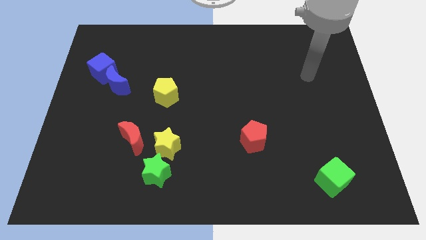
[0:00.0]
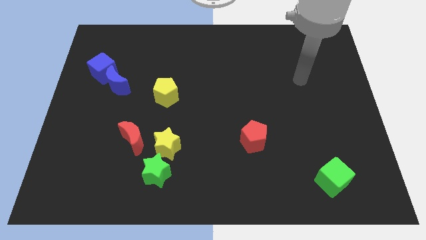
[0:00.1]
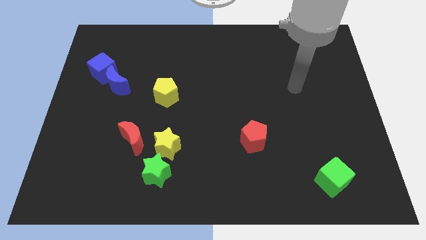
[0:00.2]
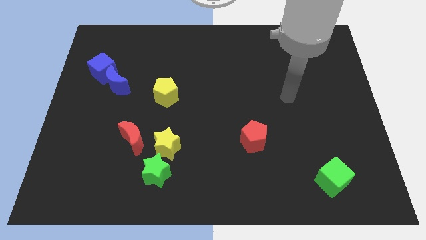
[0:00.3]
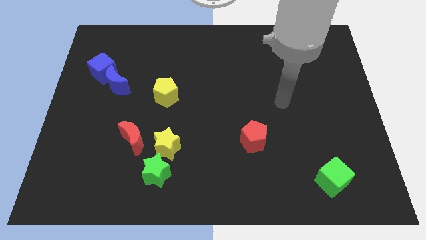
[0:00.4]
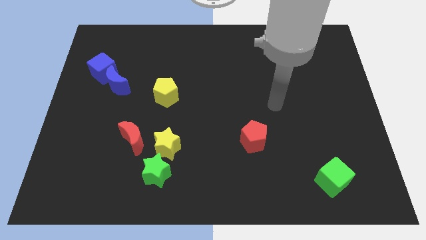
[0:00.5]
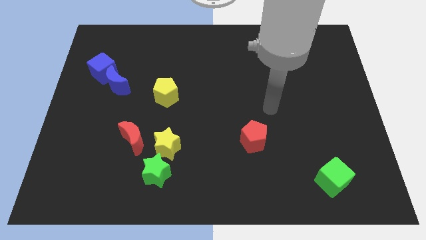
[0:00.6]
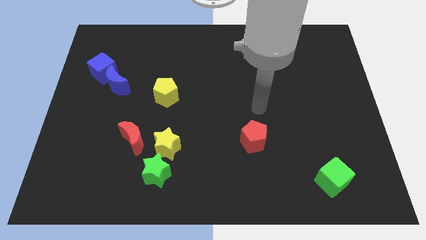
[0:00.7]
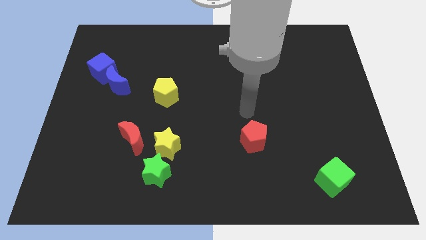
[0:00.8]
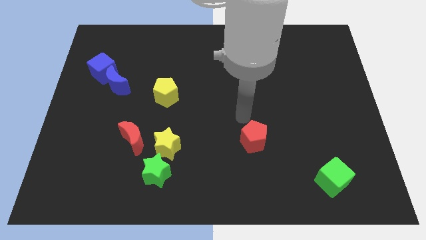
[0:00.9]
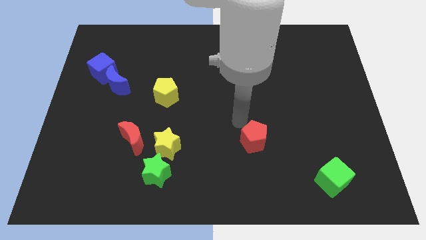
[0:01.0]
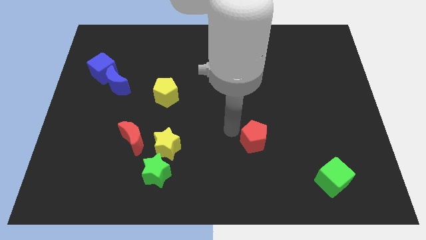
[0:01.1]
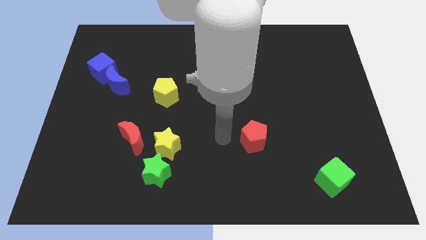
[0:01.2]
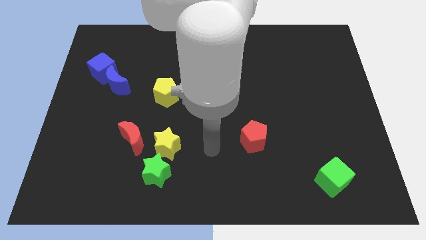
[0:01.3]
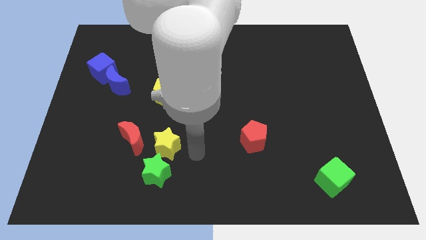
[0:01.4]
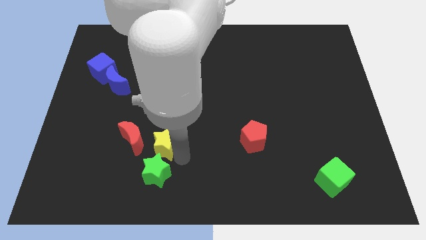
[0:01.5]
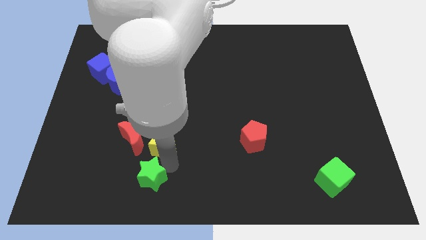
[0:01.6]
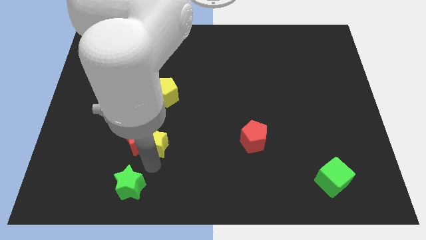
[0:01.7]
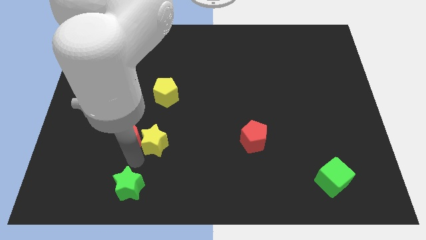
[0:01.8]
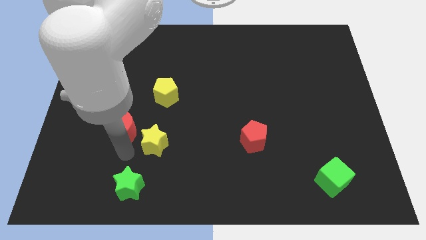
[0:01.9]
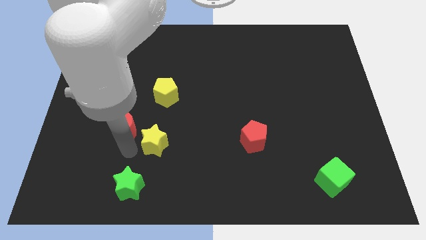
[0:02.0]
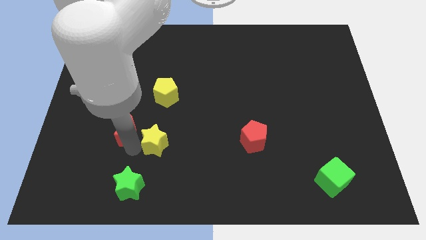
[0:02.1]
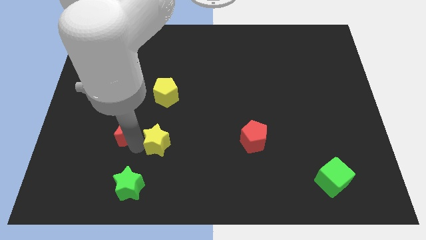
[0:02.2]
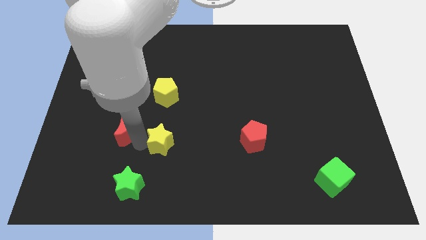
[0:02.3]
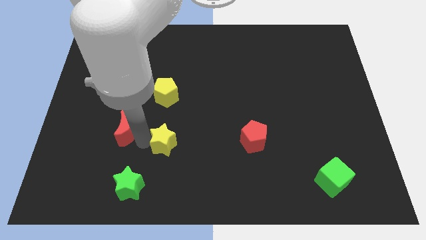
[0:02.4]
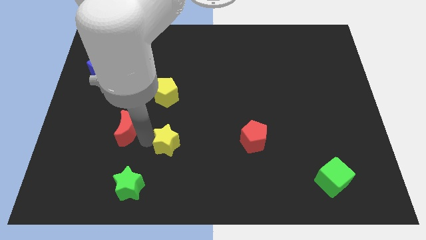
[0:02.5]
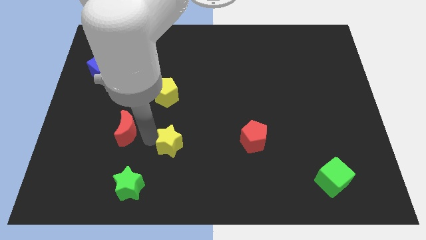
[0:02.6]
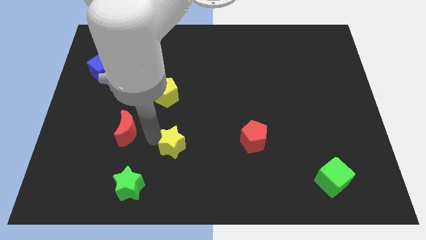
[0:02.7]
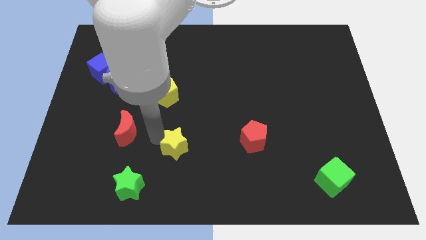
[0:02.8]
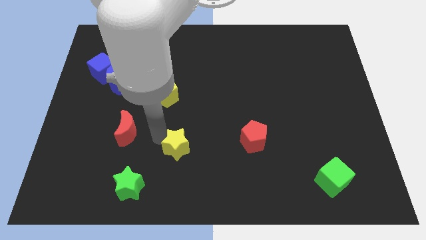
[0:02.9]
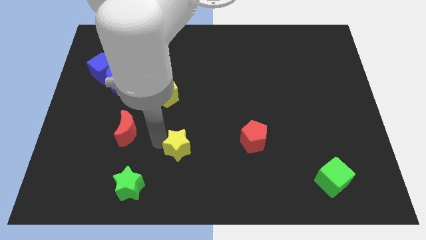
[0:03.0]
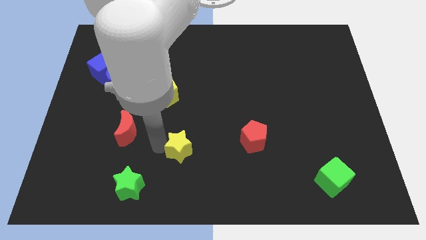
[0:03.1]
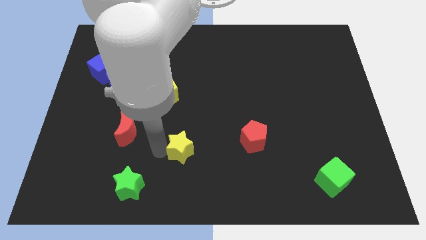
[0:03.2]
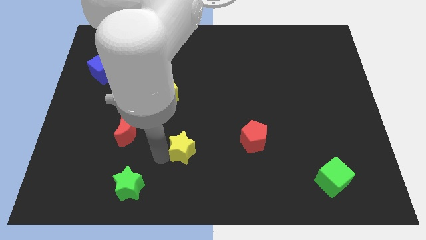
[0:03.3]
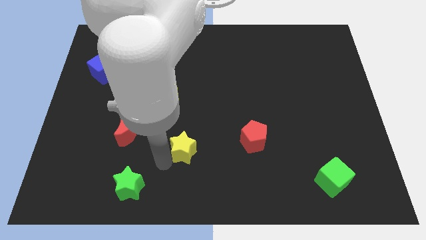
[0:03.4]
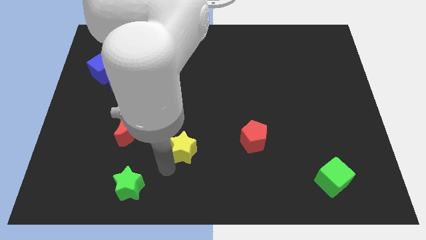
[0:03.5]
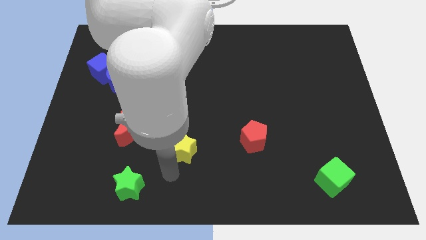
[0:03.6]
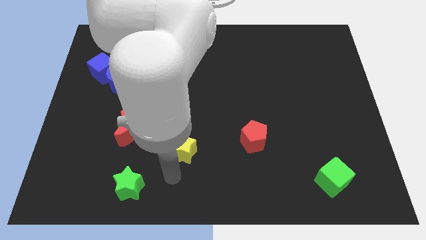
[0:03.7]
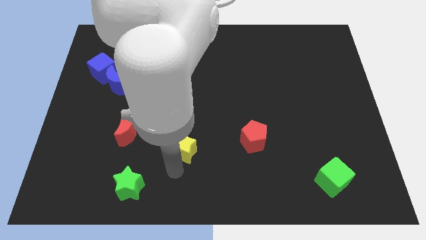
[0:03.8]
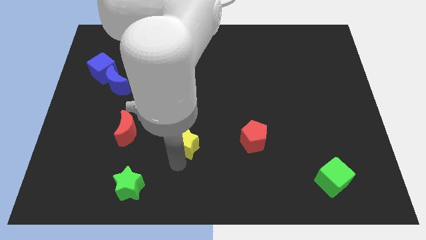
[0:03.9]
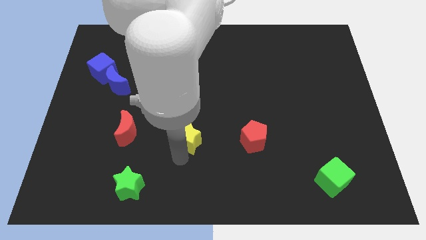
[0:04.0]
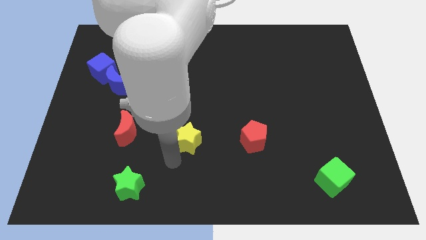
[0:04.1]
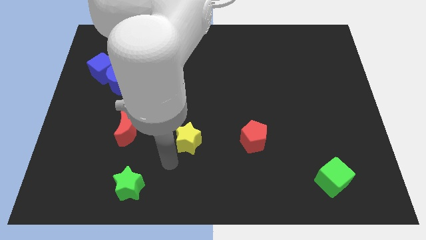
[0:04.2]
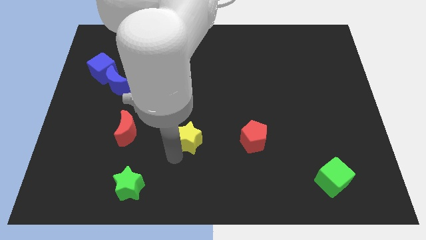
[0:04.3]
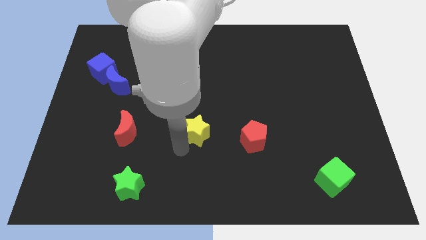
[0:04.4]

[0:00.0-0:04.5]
slightly slide the yellow star upwards and right

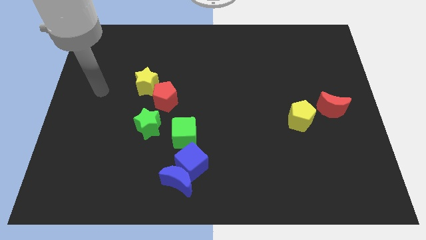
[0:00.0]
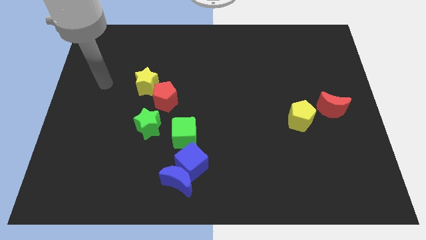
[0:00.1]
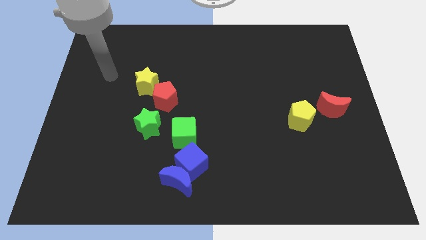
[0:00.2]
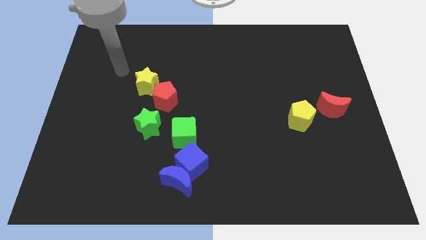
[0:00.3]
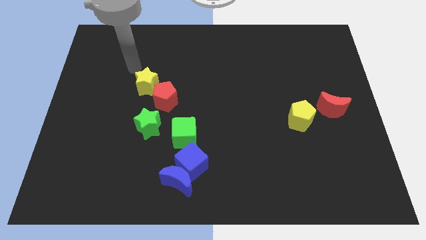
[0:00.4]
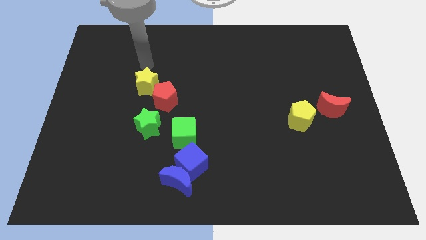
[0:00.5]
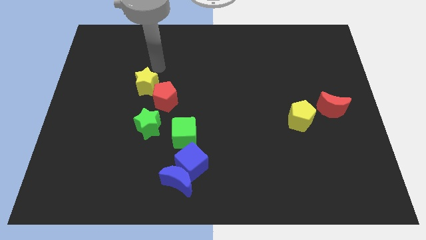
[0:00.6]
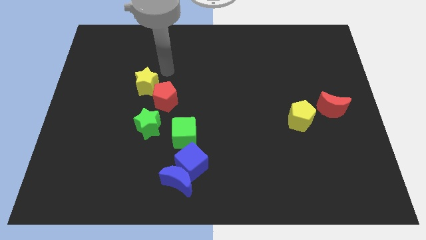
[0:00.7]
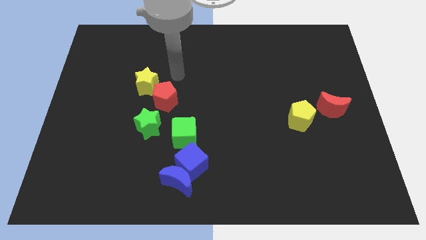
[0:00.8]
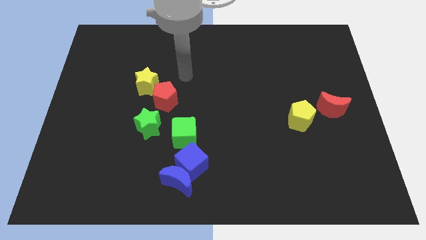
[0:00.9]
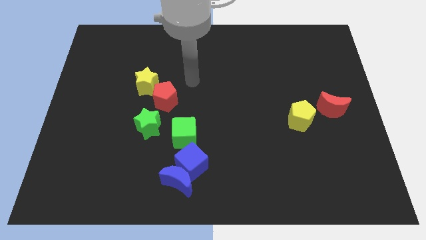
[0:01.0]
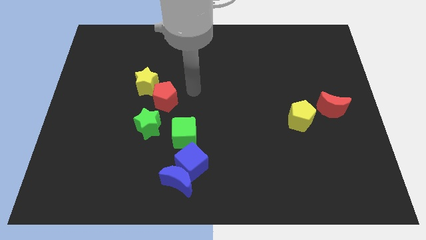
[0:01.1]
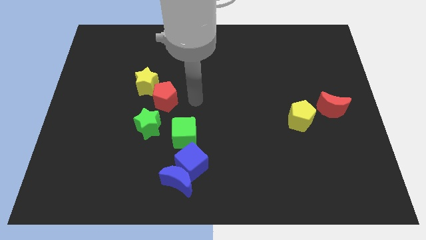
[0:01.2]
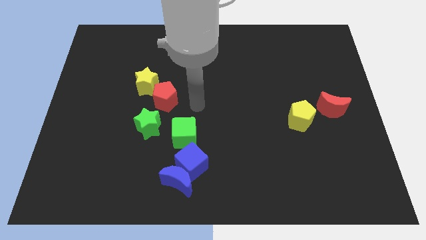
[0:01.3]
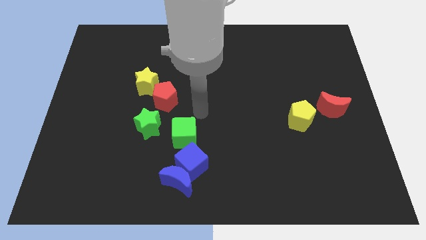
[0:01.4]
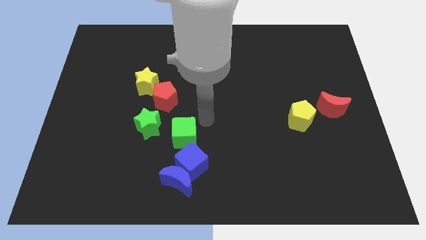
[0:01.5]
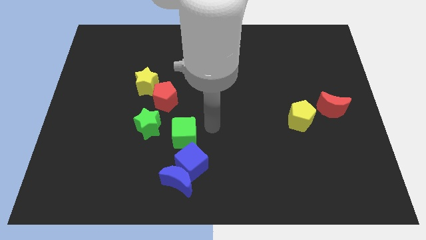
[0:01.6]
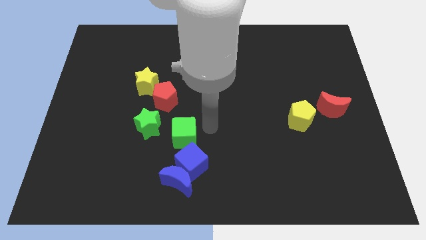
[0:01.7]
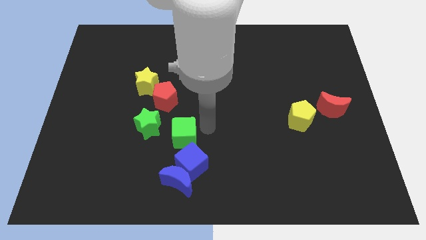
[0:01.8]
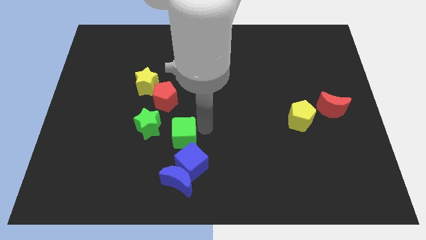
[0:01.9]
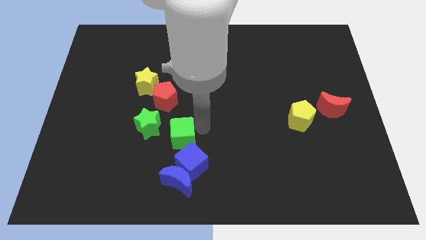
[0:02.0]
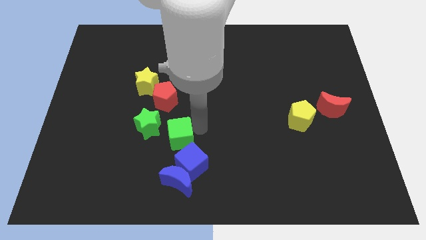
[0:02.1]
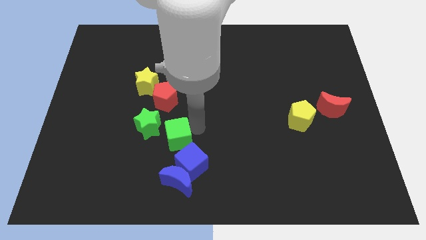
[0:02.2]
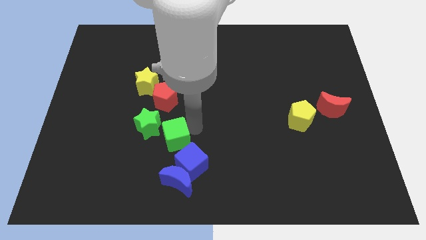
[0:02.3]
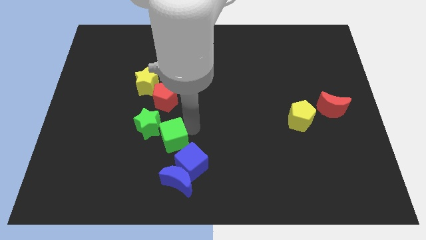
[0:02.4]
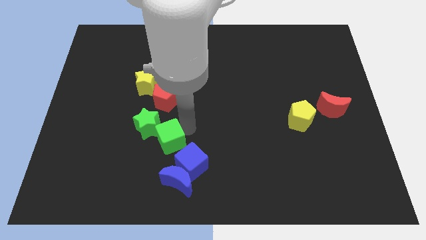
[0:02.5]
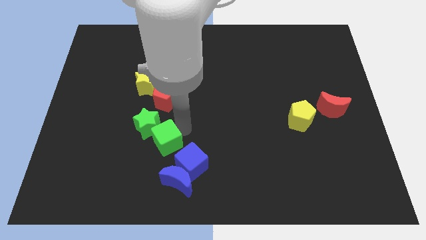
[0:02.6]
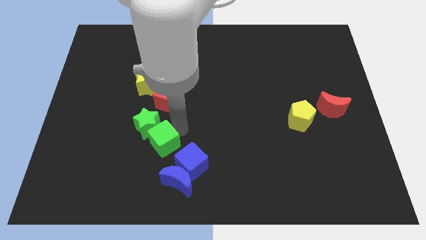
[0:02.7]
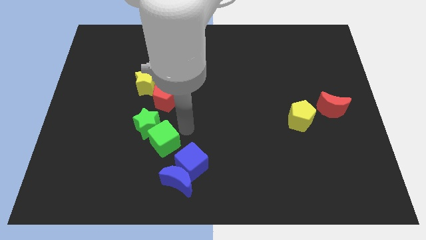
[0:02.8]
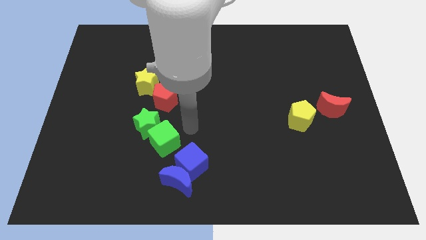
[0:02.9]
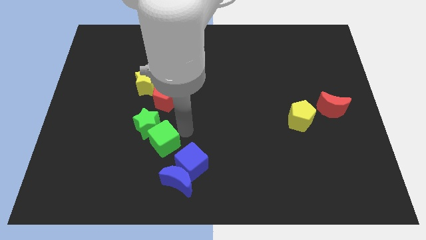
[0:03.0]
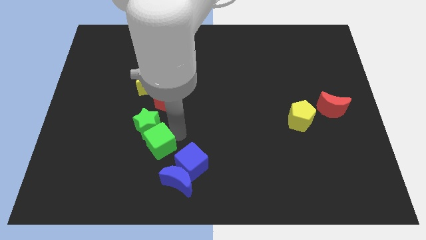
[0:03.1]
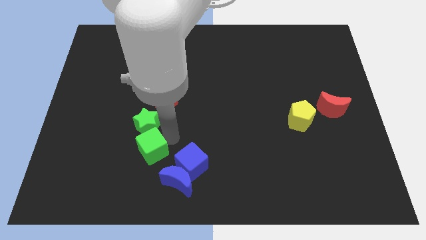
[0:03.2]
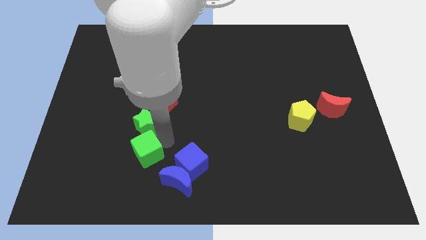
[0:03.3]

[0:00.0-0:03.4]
slightly push the green cube left

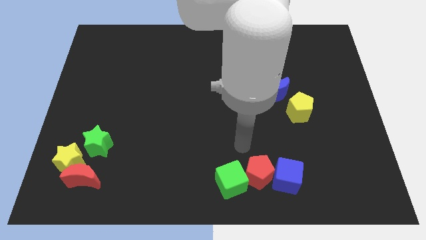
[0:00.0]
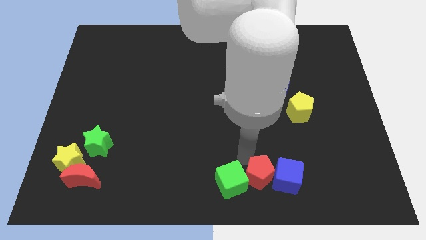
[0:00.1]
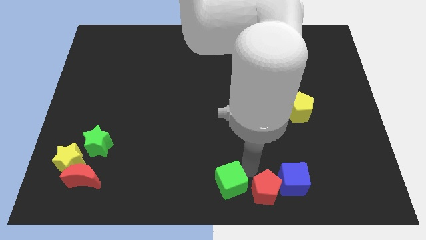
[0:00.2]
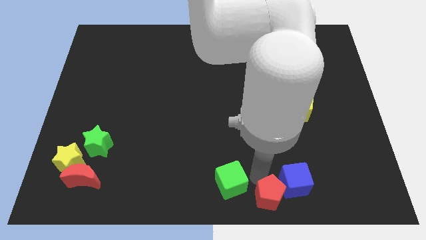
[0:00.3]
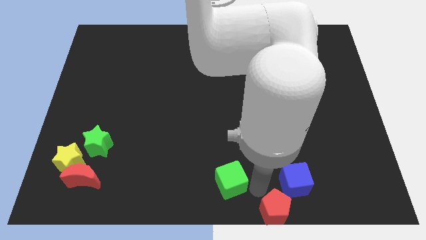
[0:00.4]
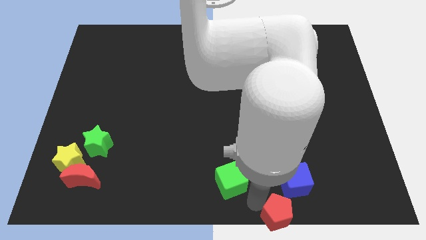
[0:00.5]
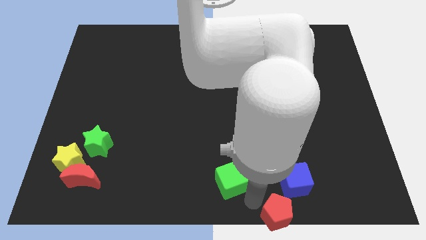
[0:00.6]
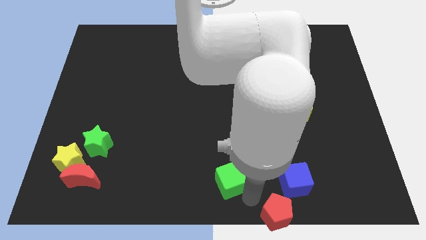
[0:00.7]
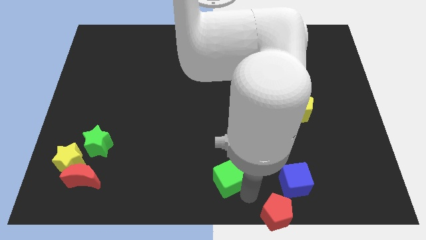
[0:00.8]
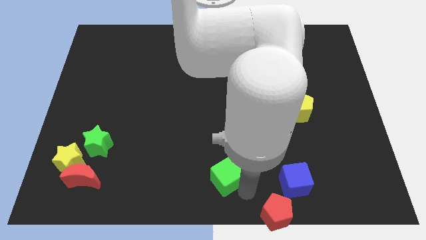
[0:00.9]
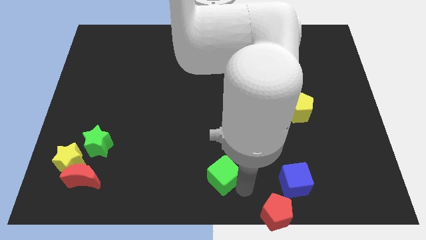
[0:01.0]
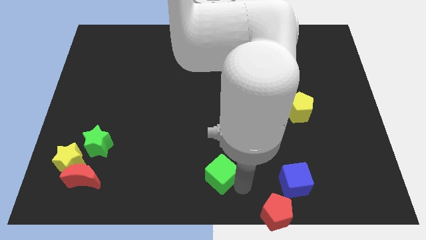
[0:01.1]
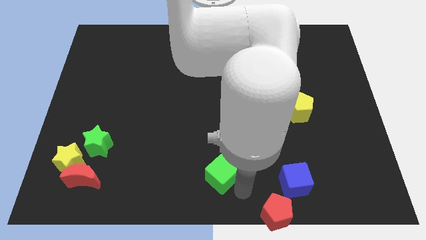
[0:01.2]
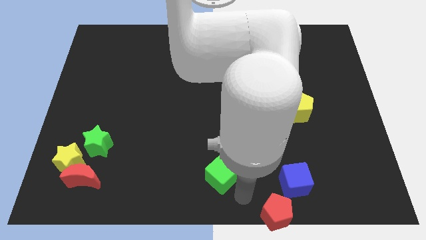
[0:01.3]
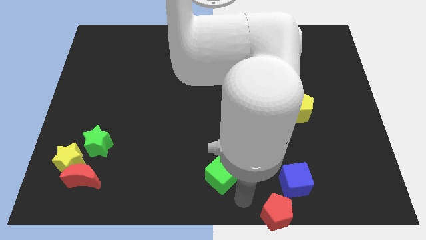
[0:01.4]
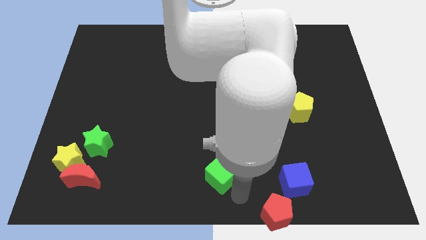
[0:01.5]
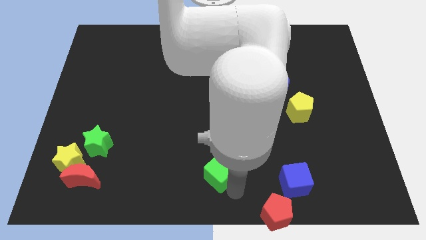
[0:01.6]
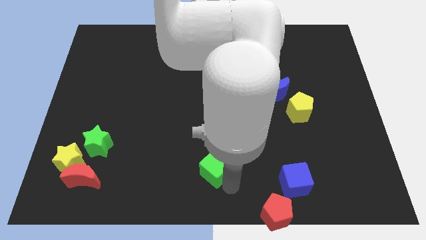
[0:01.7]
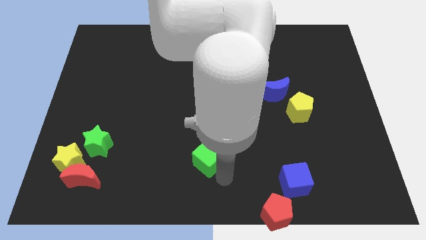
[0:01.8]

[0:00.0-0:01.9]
slightly slide the green cube upwards and to the left diagonally
